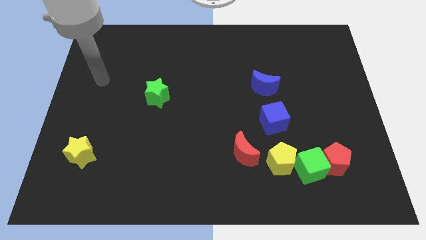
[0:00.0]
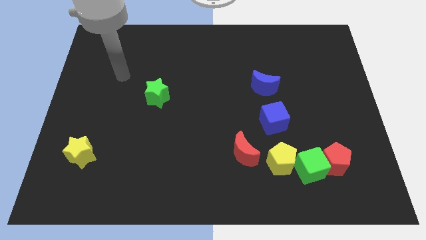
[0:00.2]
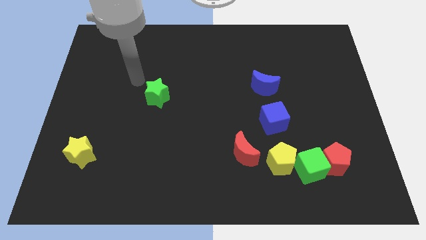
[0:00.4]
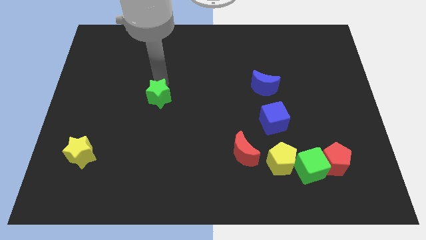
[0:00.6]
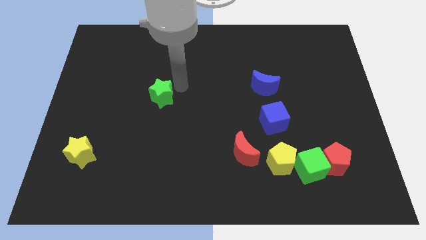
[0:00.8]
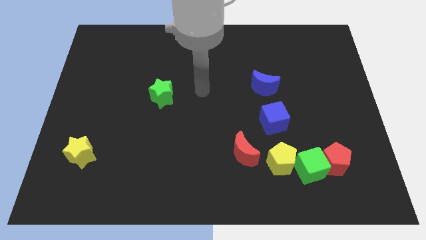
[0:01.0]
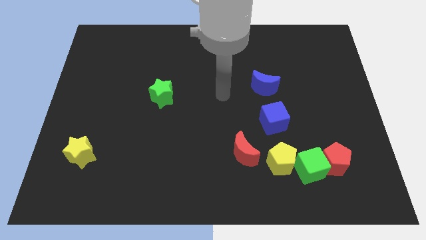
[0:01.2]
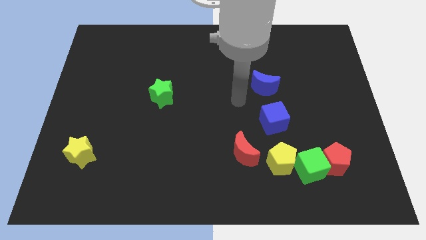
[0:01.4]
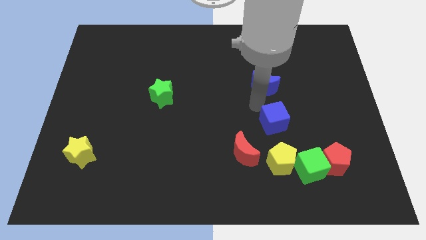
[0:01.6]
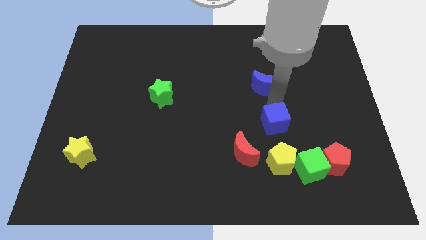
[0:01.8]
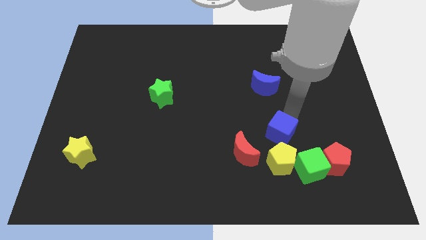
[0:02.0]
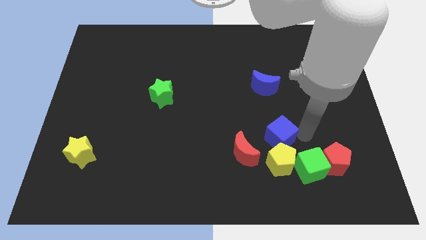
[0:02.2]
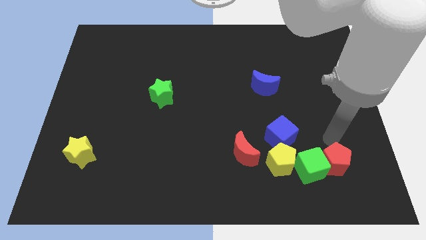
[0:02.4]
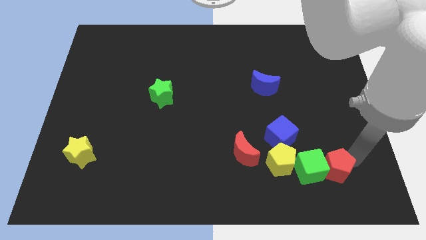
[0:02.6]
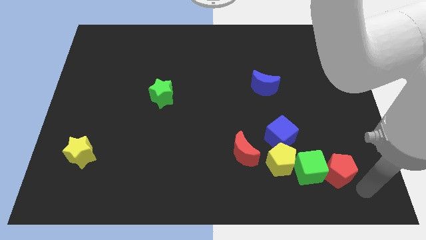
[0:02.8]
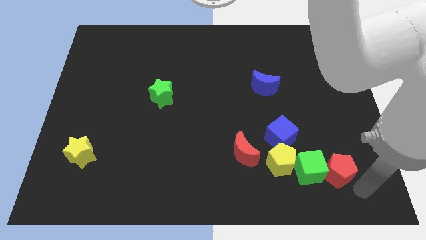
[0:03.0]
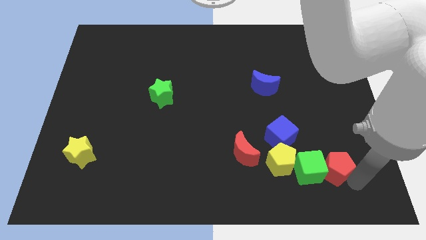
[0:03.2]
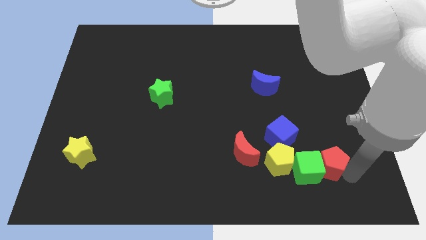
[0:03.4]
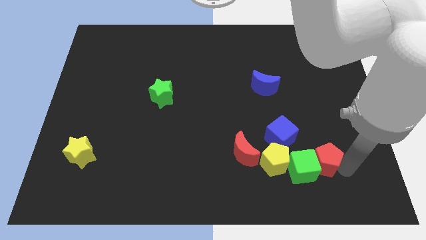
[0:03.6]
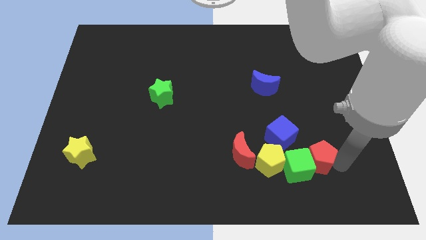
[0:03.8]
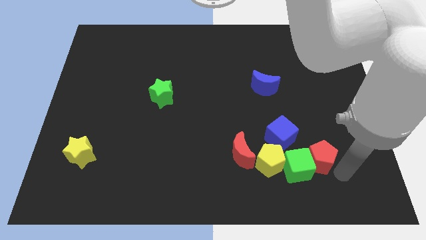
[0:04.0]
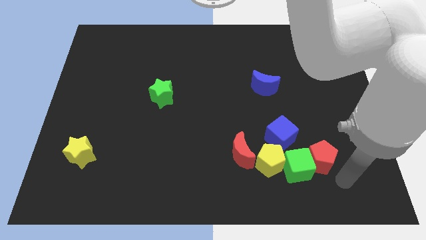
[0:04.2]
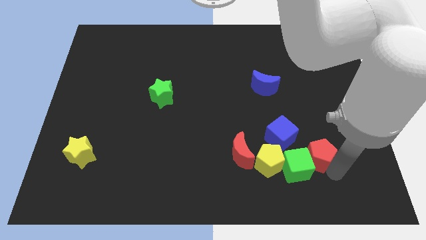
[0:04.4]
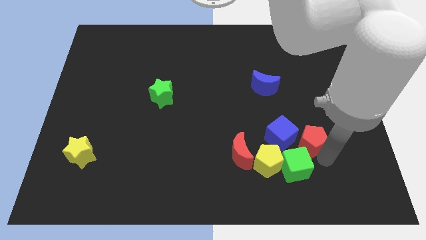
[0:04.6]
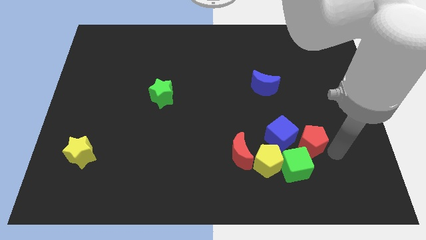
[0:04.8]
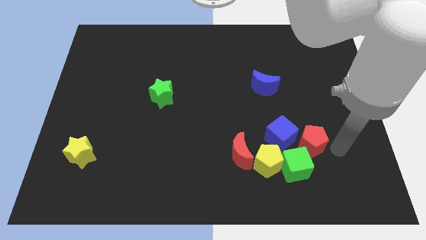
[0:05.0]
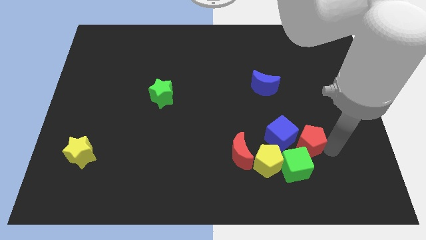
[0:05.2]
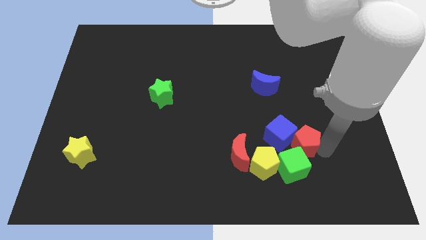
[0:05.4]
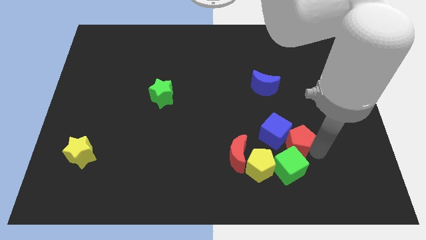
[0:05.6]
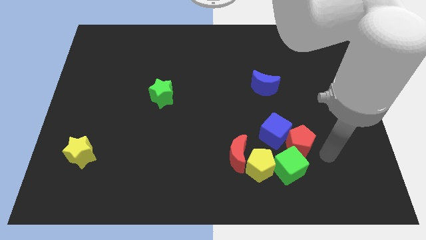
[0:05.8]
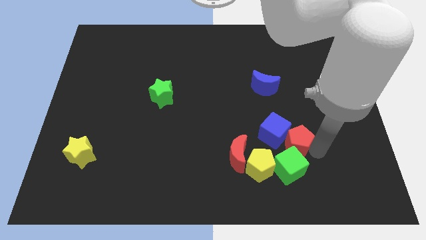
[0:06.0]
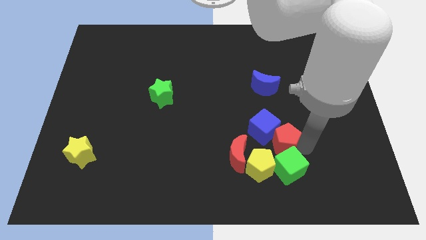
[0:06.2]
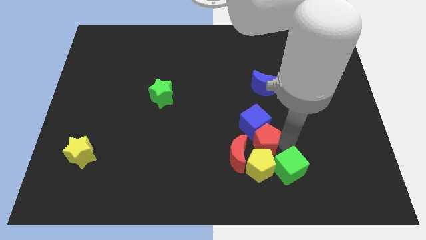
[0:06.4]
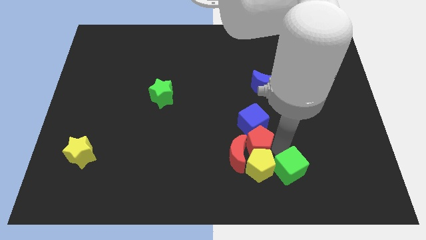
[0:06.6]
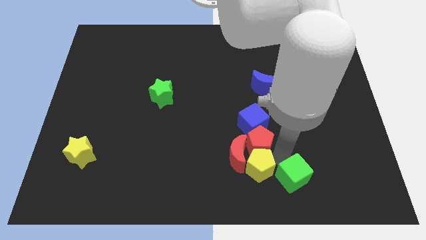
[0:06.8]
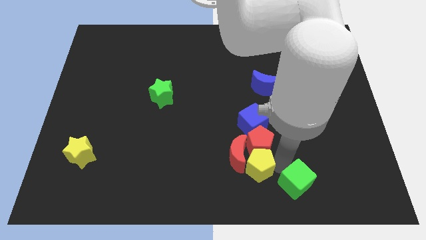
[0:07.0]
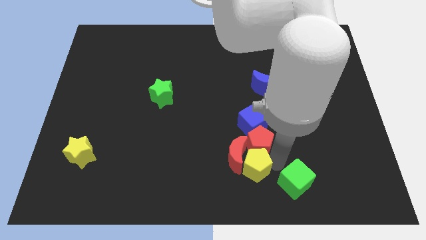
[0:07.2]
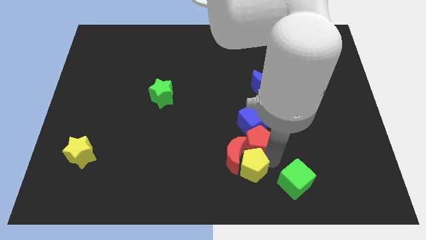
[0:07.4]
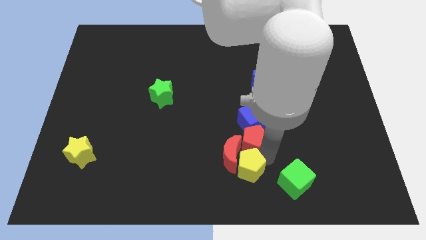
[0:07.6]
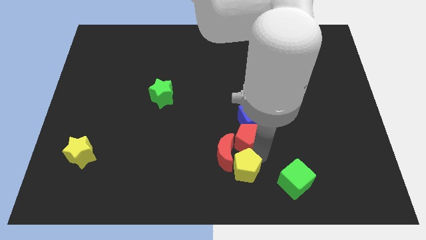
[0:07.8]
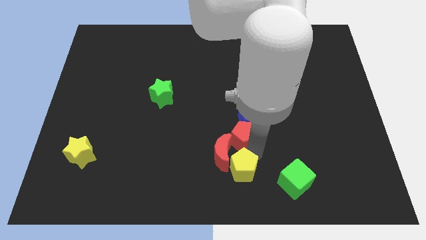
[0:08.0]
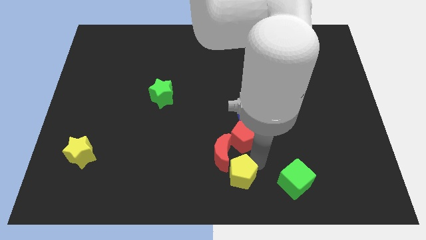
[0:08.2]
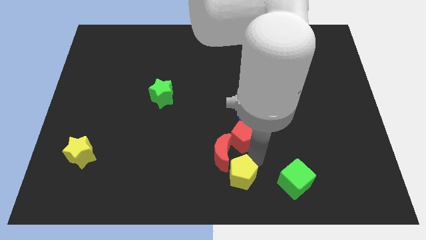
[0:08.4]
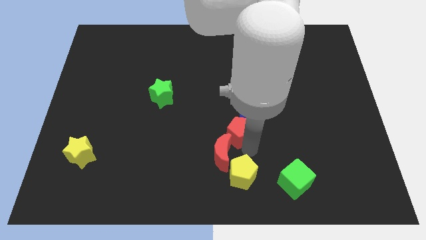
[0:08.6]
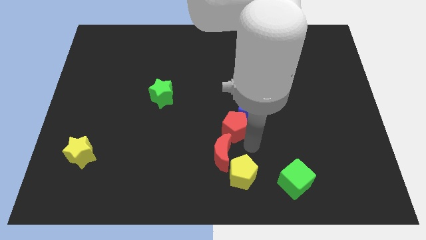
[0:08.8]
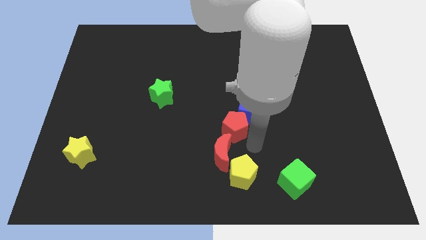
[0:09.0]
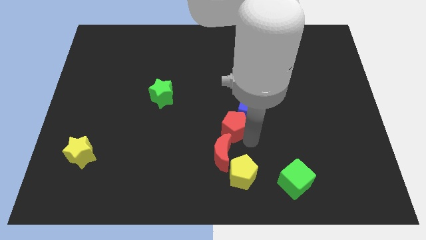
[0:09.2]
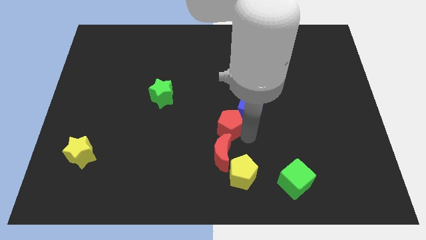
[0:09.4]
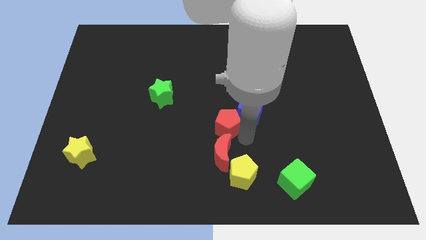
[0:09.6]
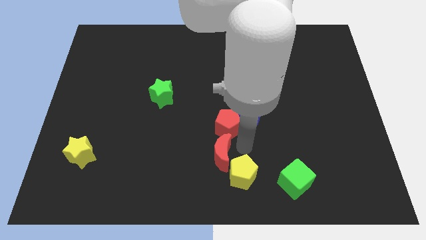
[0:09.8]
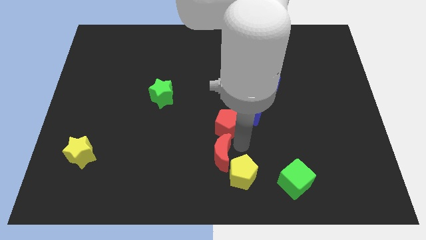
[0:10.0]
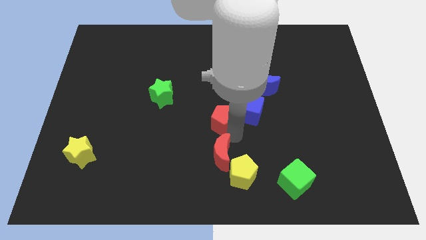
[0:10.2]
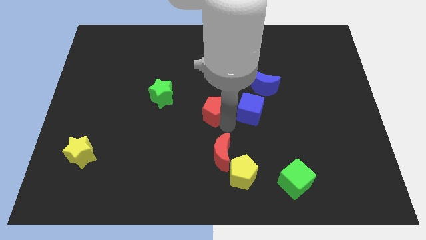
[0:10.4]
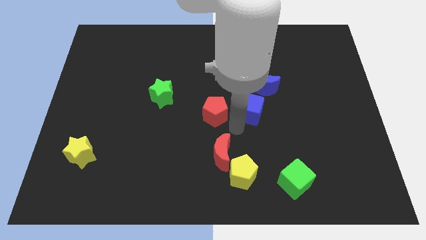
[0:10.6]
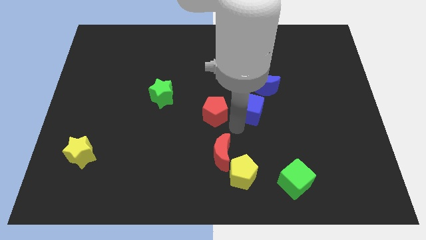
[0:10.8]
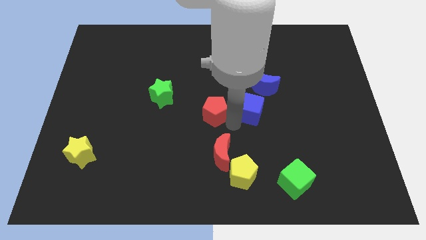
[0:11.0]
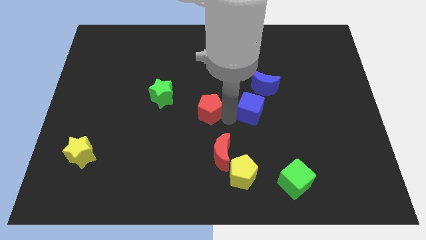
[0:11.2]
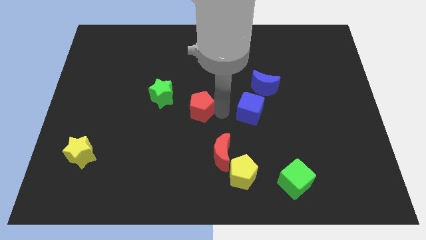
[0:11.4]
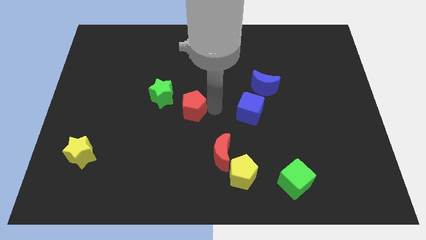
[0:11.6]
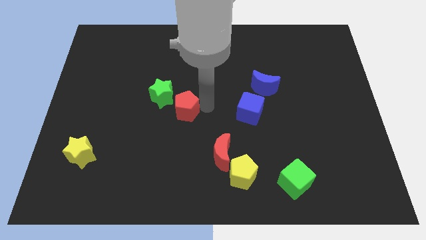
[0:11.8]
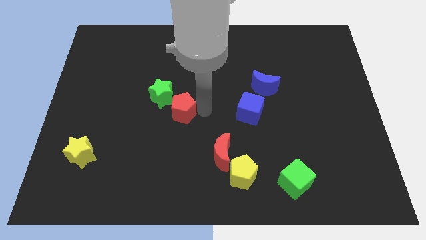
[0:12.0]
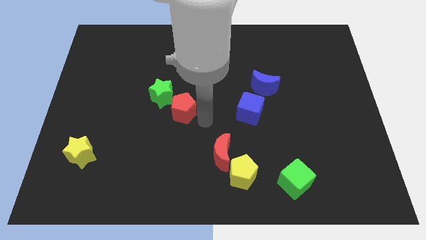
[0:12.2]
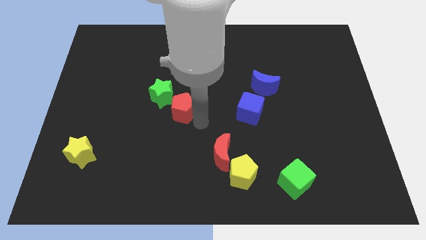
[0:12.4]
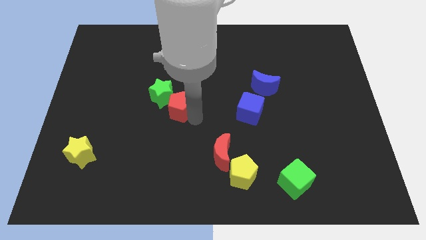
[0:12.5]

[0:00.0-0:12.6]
put the red pentagon to the green star

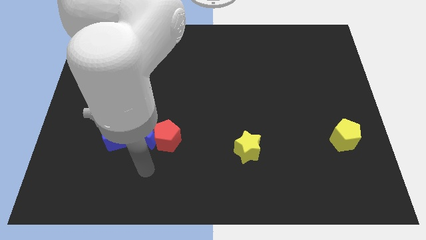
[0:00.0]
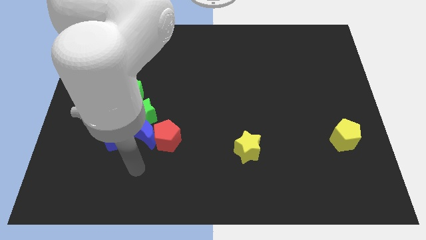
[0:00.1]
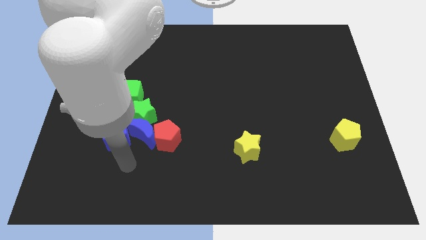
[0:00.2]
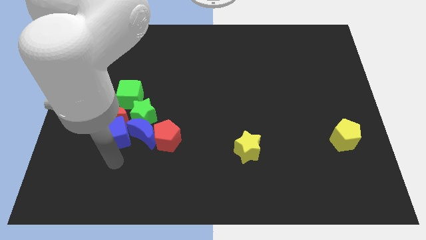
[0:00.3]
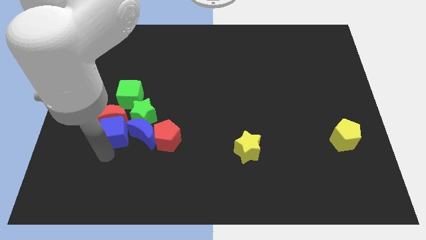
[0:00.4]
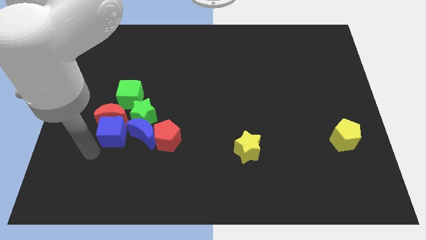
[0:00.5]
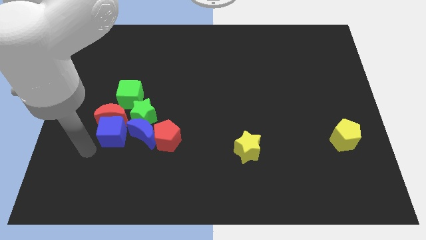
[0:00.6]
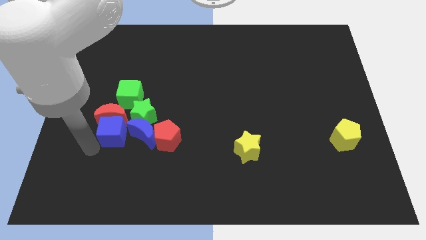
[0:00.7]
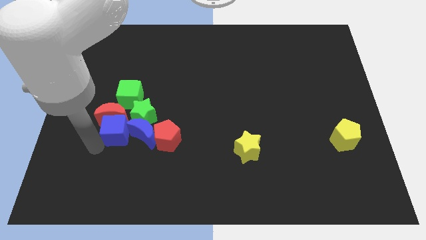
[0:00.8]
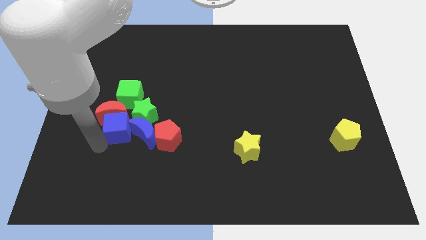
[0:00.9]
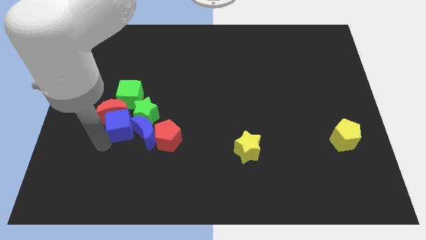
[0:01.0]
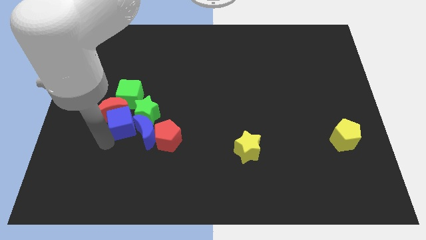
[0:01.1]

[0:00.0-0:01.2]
put the blue cube to the green star
